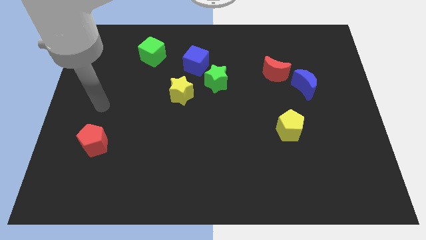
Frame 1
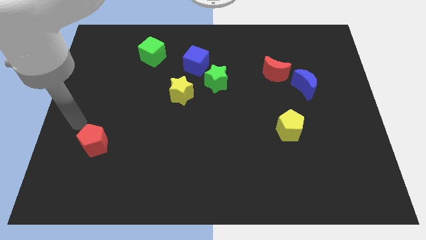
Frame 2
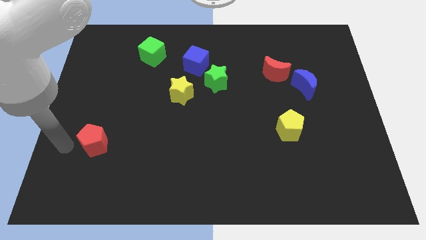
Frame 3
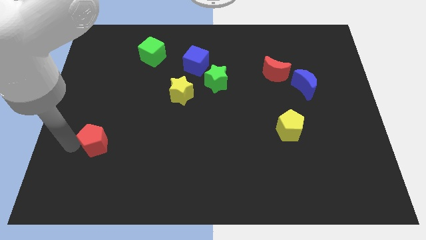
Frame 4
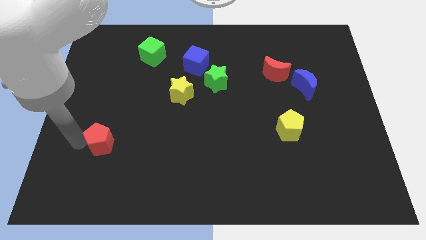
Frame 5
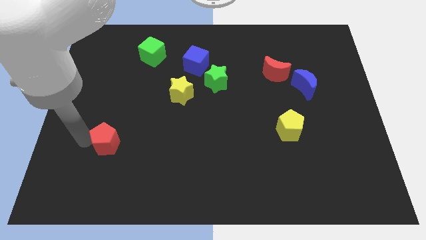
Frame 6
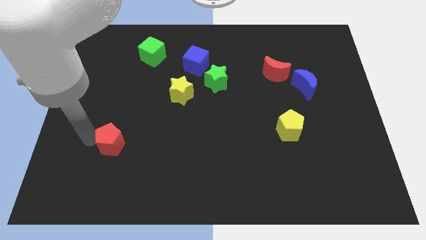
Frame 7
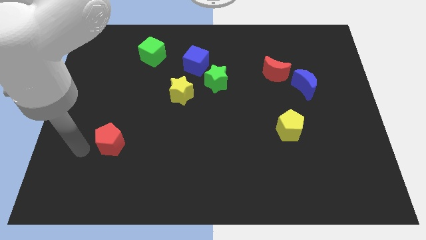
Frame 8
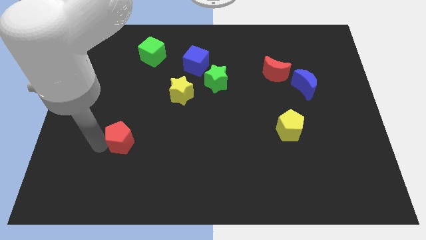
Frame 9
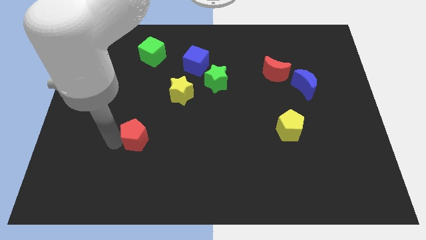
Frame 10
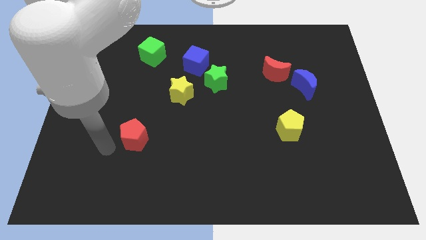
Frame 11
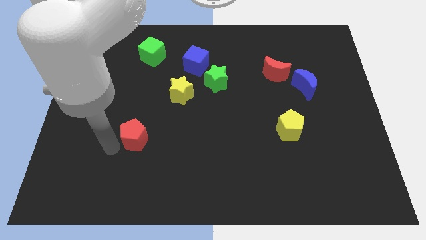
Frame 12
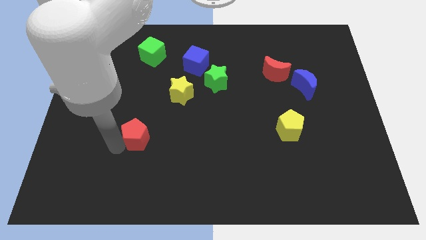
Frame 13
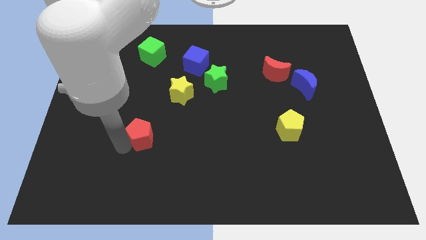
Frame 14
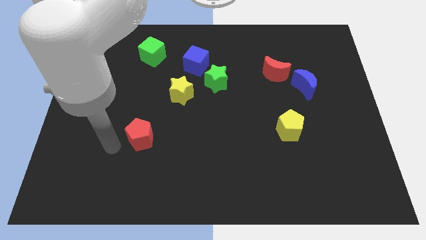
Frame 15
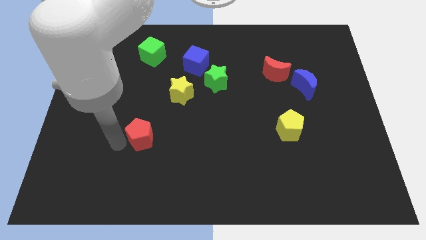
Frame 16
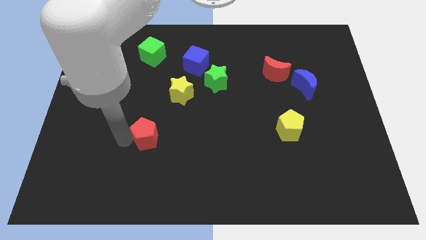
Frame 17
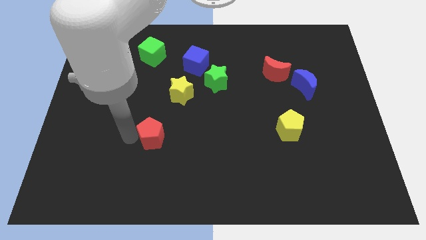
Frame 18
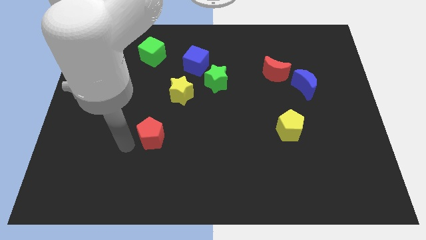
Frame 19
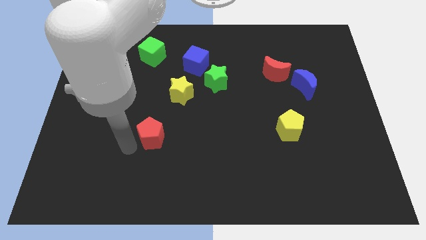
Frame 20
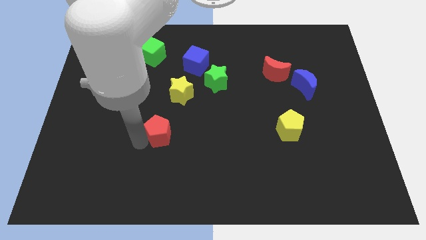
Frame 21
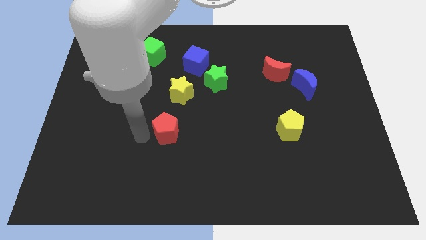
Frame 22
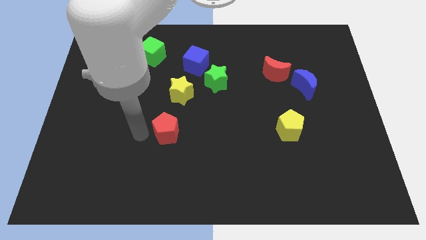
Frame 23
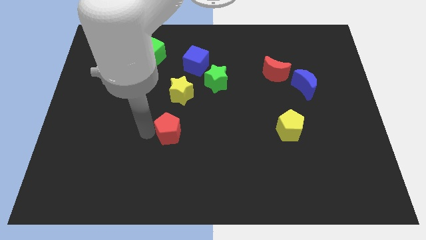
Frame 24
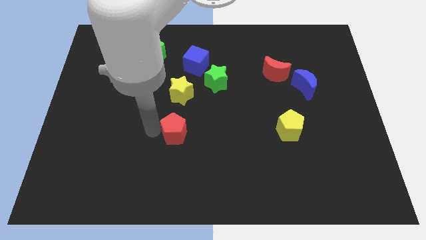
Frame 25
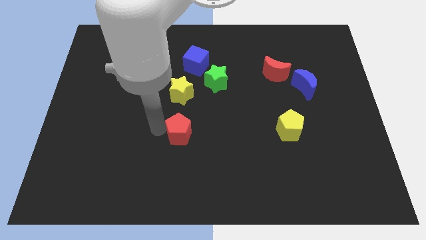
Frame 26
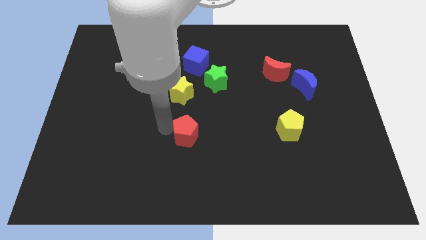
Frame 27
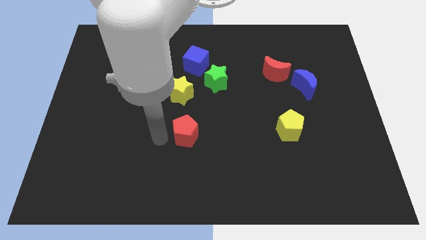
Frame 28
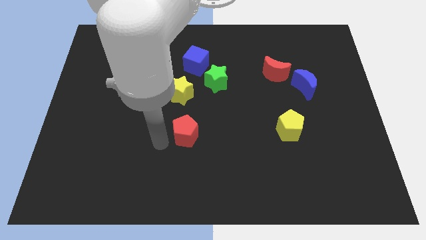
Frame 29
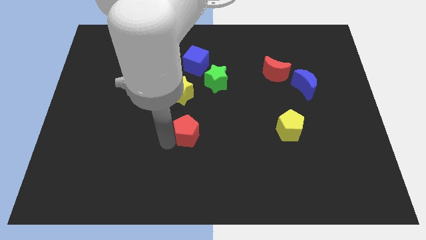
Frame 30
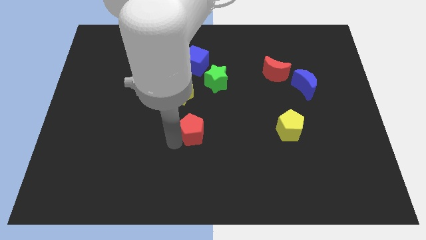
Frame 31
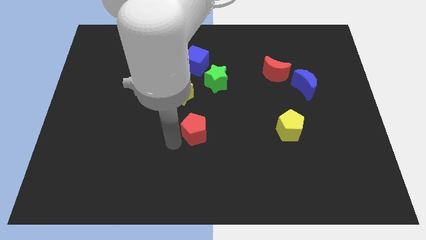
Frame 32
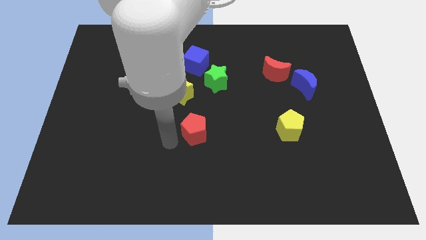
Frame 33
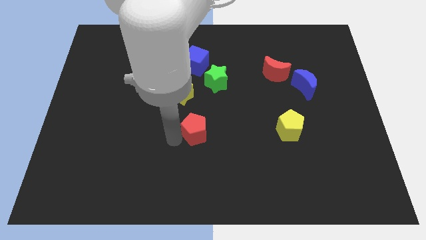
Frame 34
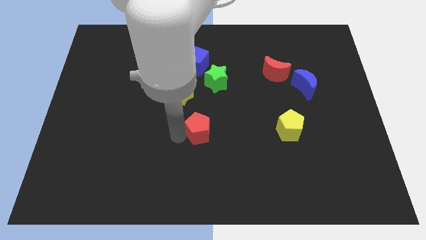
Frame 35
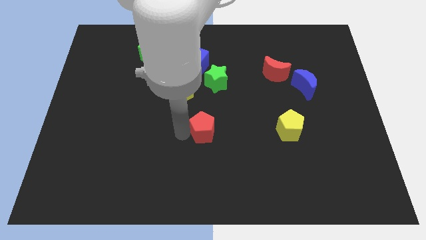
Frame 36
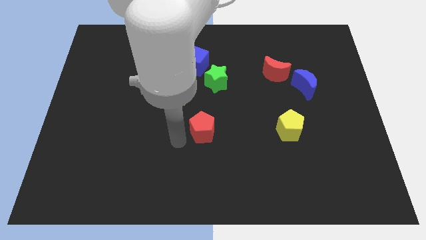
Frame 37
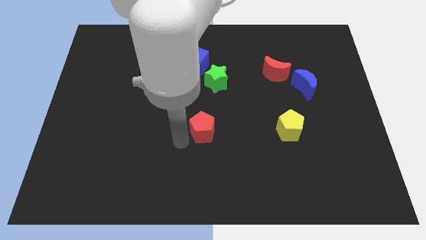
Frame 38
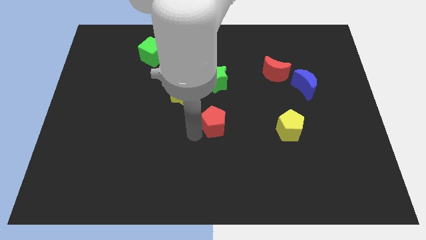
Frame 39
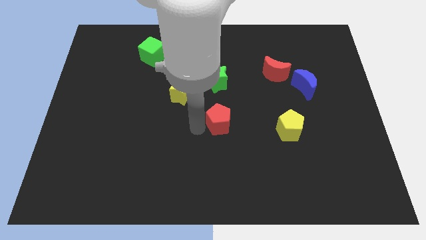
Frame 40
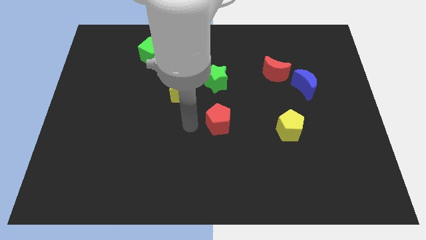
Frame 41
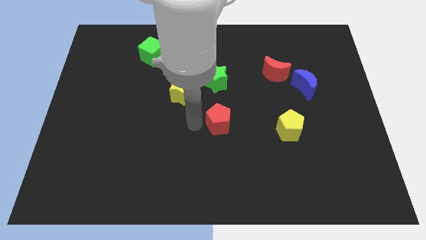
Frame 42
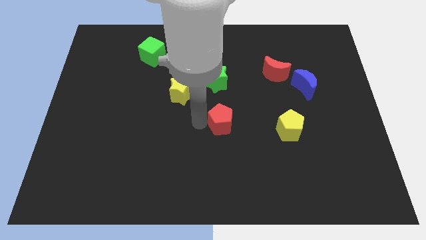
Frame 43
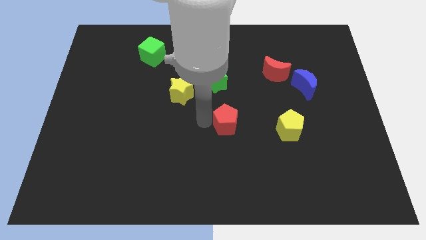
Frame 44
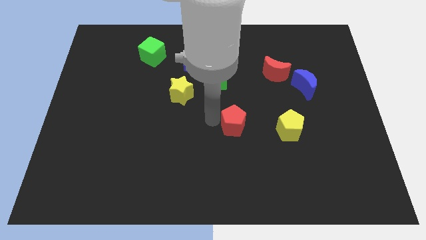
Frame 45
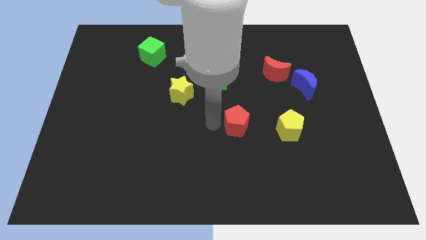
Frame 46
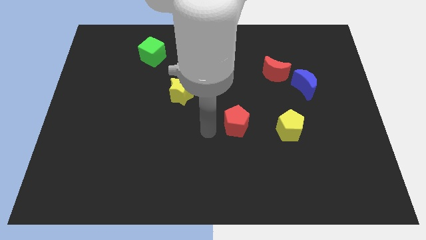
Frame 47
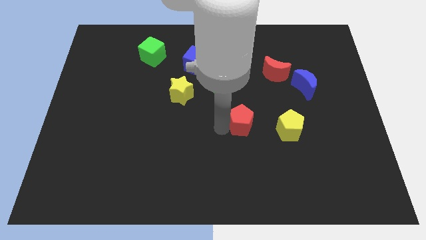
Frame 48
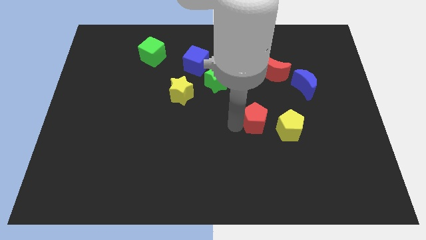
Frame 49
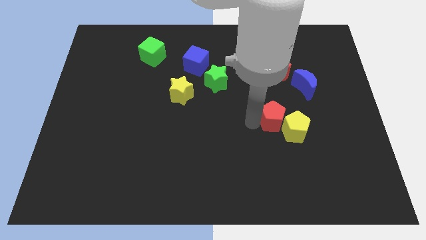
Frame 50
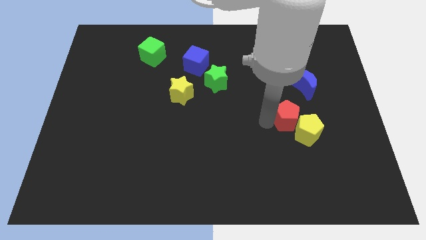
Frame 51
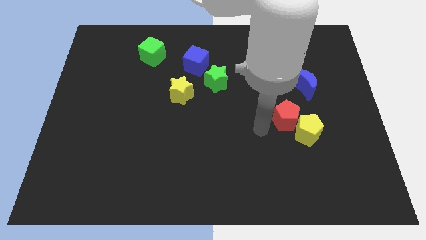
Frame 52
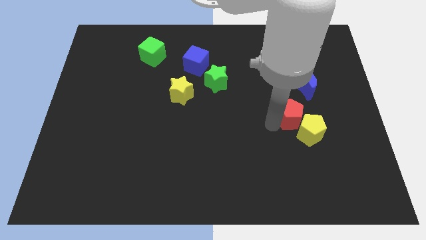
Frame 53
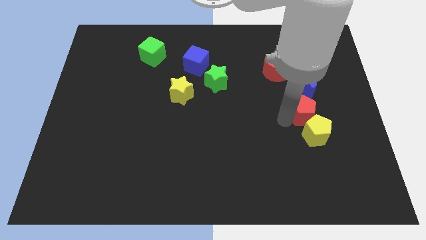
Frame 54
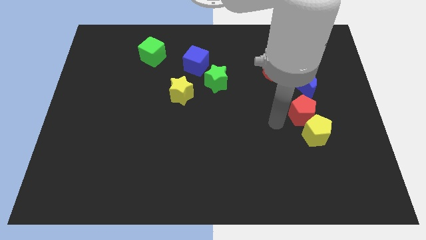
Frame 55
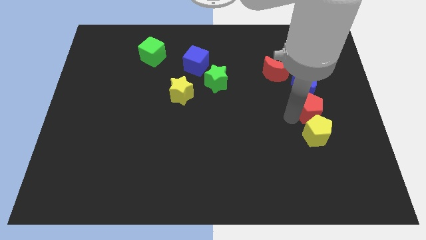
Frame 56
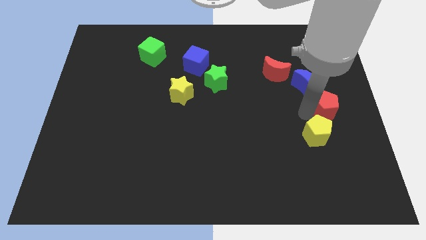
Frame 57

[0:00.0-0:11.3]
push the red pentagon to the center right

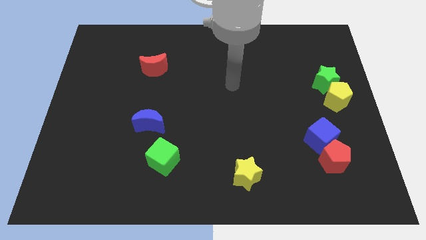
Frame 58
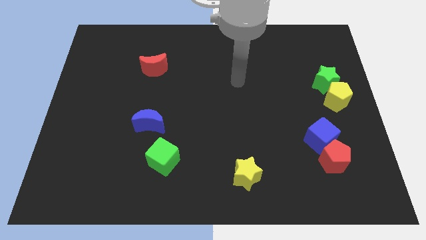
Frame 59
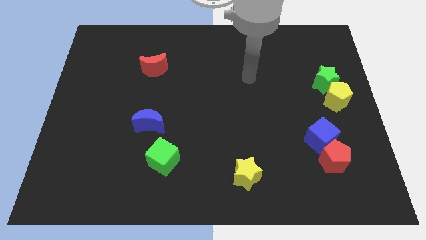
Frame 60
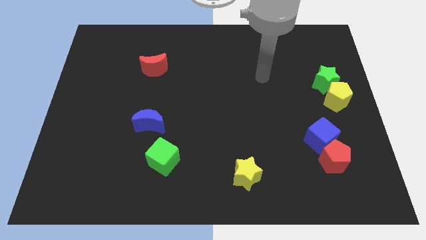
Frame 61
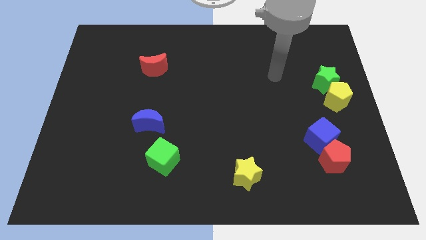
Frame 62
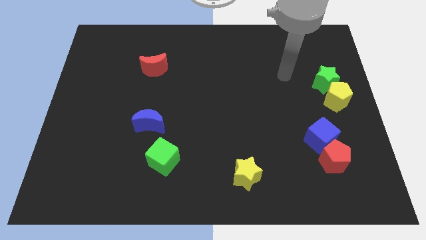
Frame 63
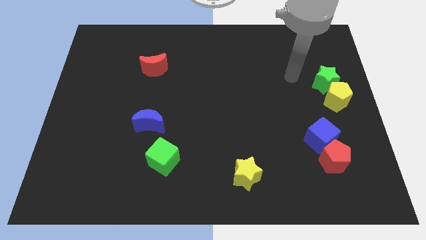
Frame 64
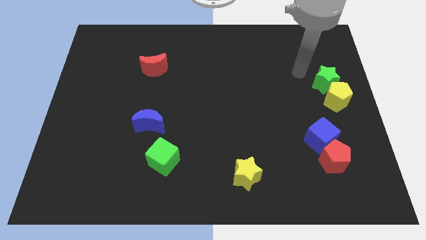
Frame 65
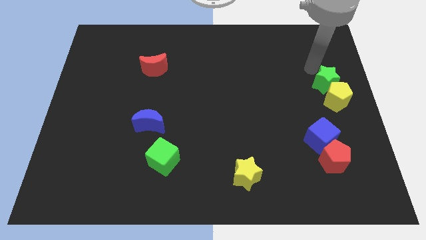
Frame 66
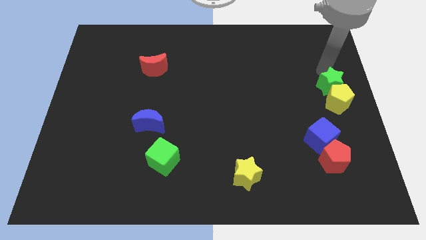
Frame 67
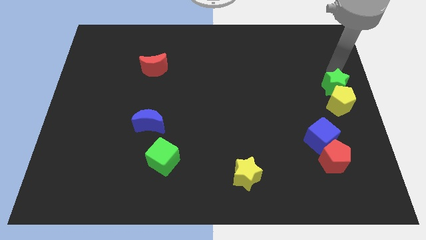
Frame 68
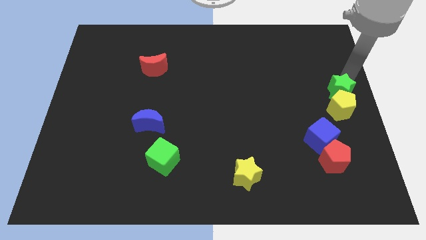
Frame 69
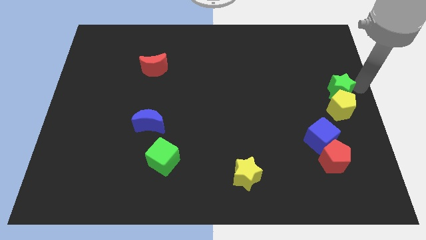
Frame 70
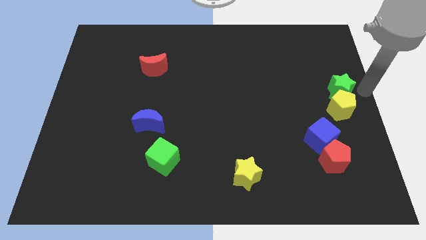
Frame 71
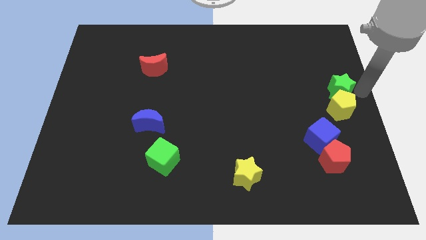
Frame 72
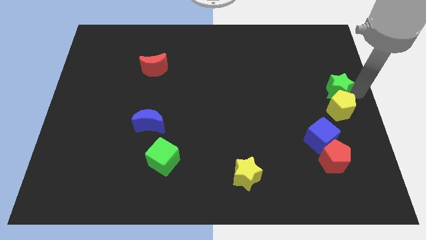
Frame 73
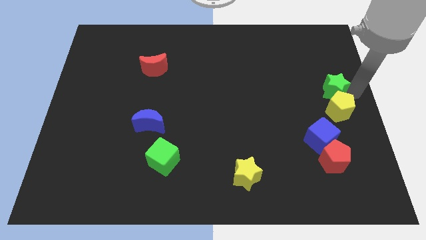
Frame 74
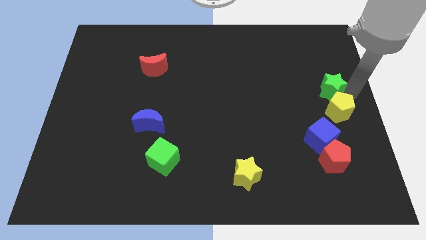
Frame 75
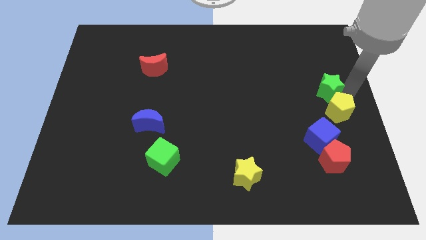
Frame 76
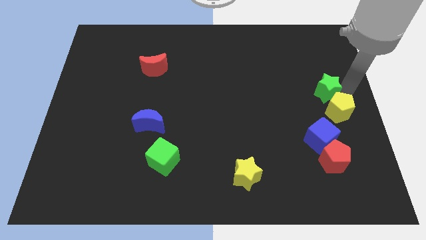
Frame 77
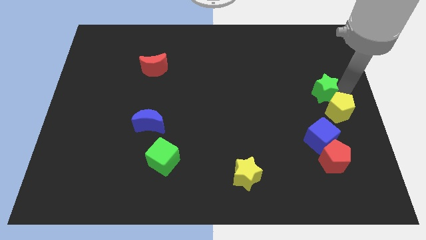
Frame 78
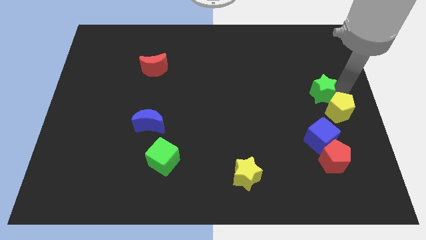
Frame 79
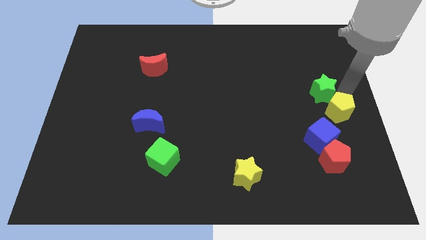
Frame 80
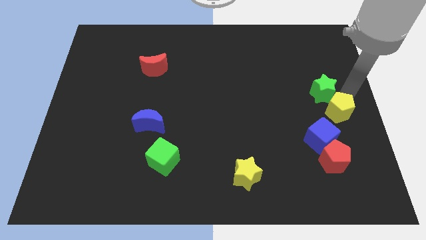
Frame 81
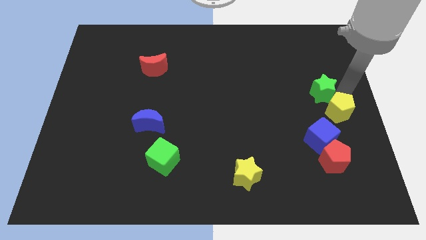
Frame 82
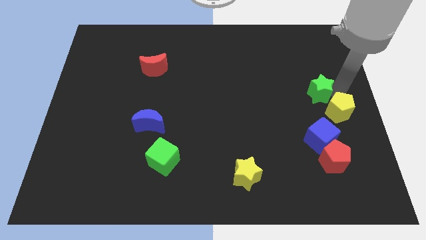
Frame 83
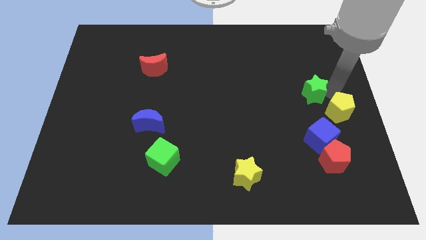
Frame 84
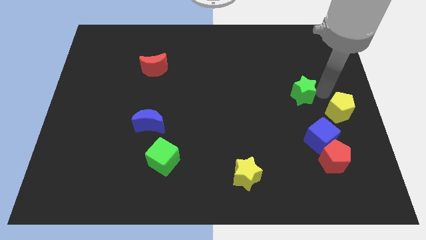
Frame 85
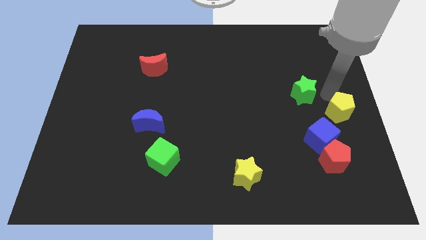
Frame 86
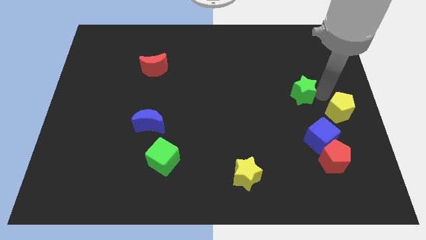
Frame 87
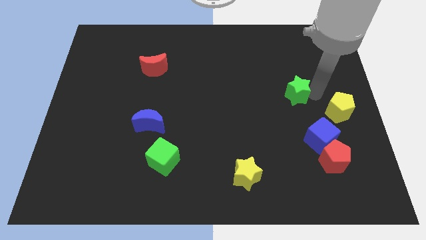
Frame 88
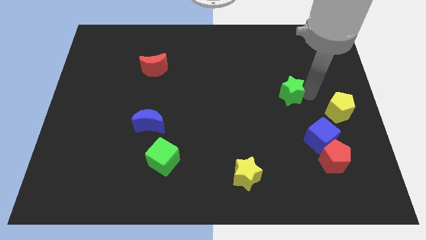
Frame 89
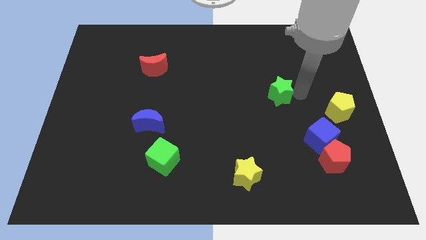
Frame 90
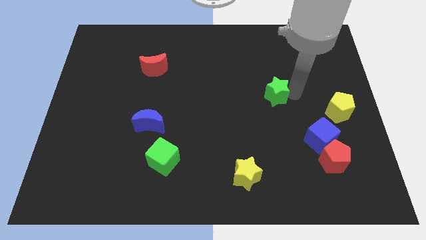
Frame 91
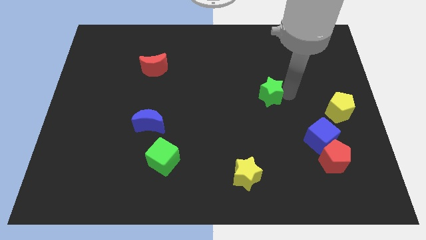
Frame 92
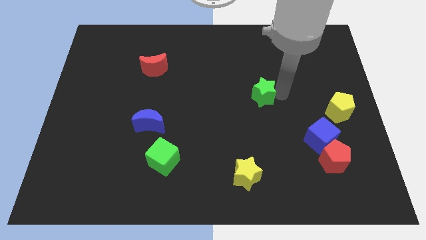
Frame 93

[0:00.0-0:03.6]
push the green star to the center of the board
